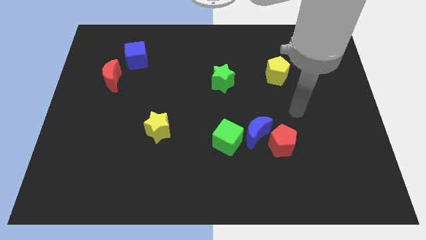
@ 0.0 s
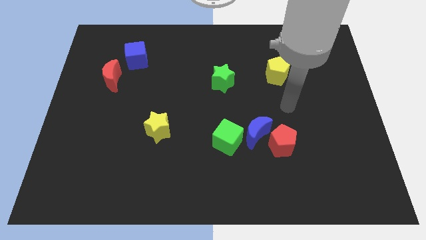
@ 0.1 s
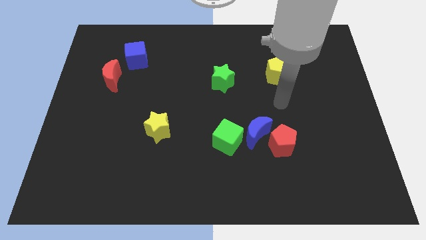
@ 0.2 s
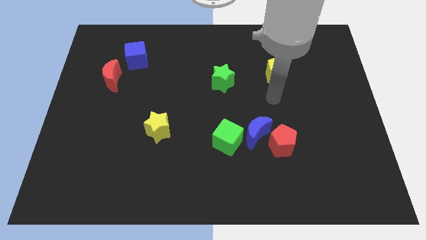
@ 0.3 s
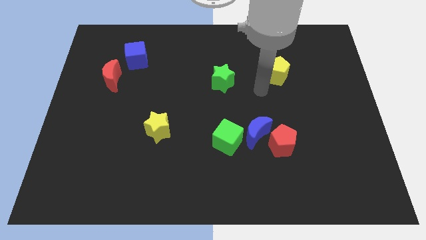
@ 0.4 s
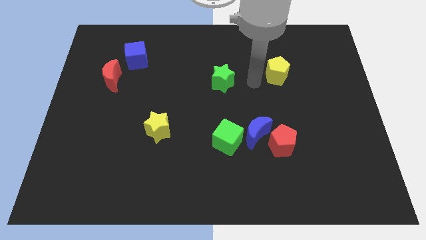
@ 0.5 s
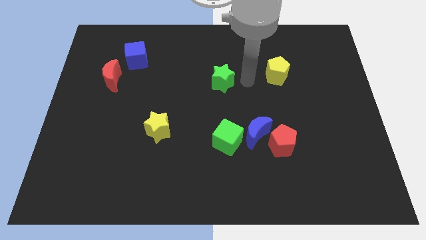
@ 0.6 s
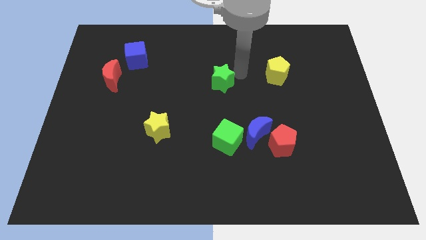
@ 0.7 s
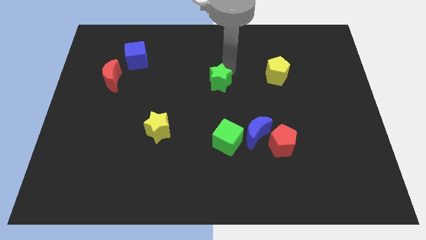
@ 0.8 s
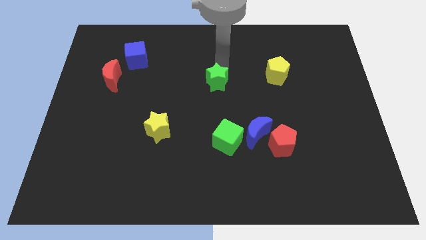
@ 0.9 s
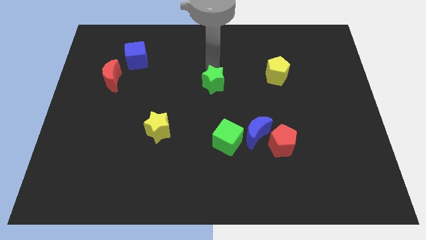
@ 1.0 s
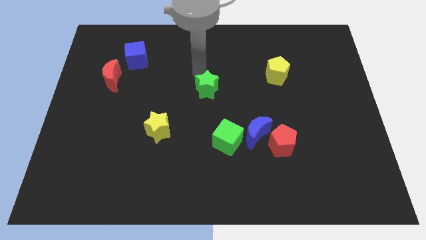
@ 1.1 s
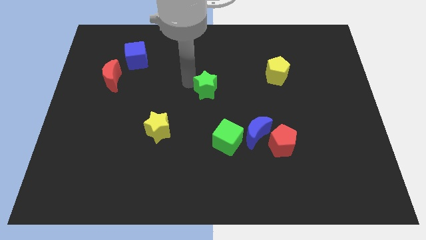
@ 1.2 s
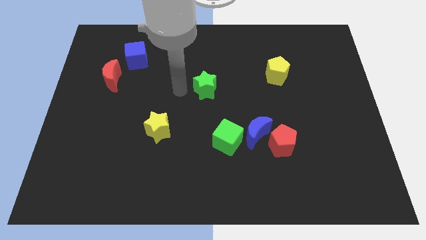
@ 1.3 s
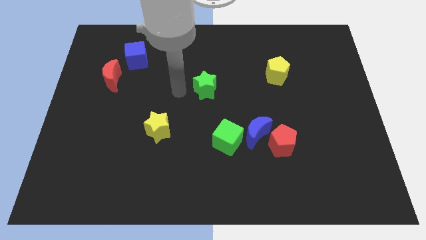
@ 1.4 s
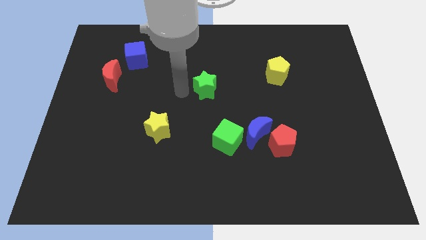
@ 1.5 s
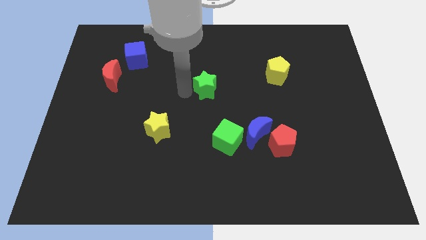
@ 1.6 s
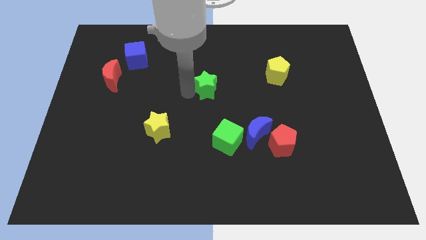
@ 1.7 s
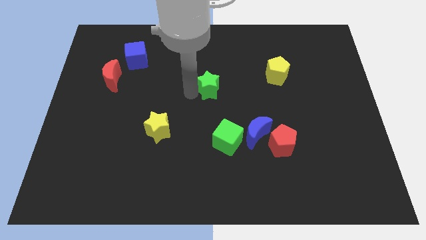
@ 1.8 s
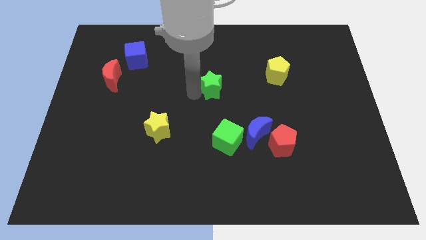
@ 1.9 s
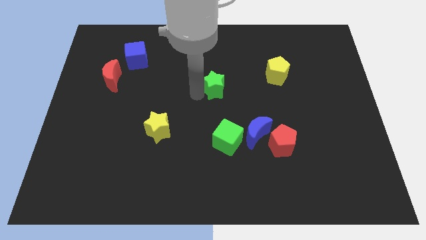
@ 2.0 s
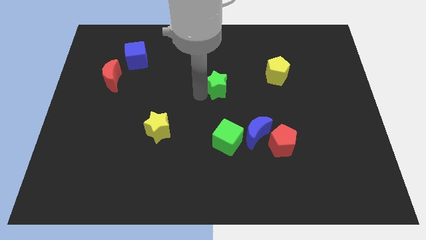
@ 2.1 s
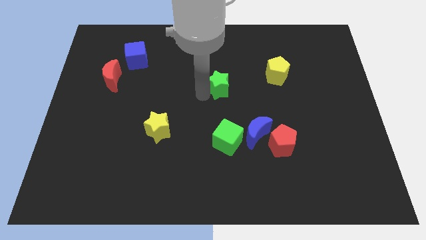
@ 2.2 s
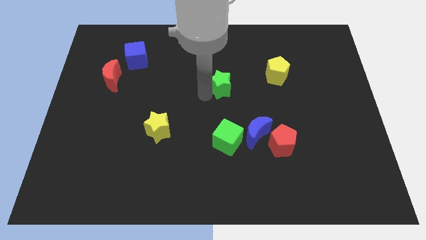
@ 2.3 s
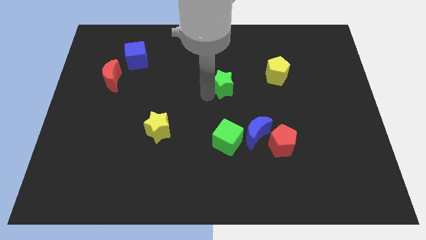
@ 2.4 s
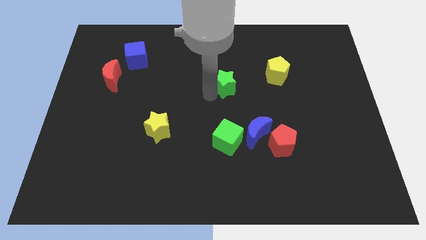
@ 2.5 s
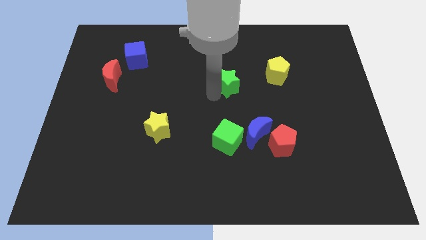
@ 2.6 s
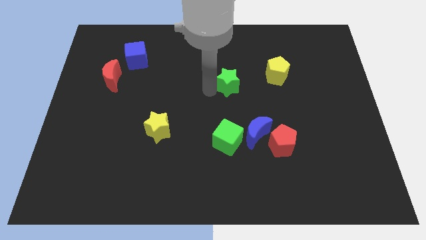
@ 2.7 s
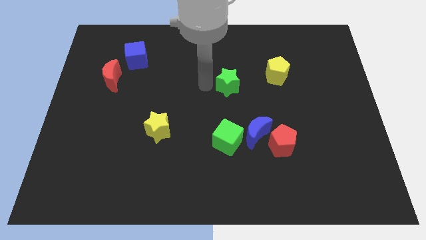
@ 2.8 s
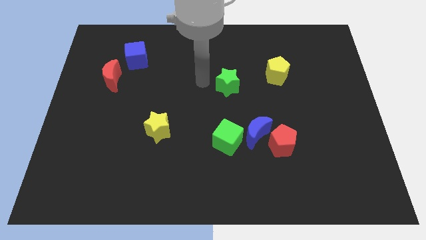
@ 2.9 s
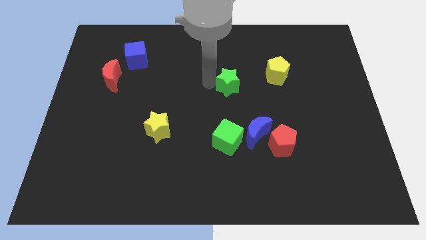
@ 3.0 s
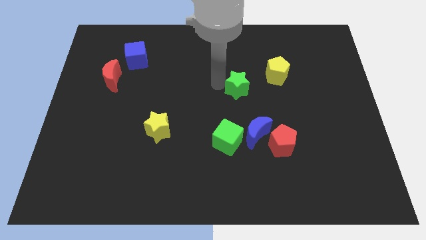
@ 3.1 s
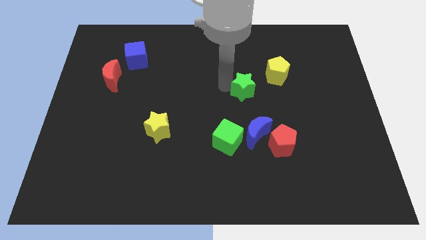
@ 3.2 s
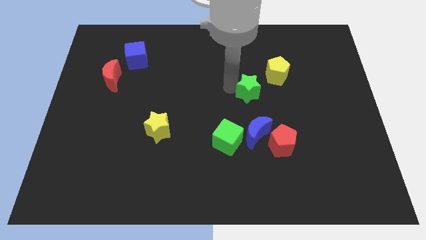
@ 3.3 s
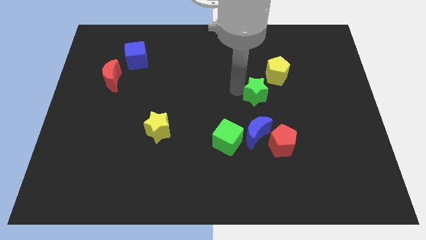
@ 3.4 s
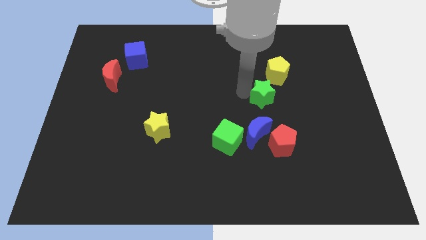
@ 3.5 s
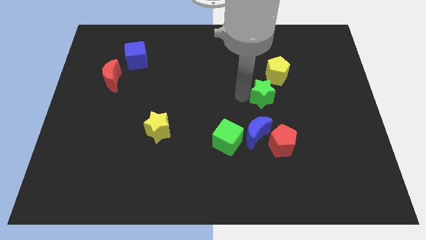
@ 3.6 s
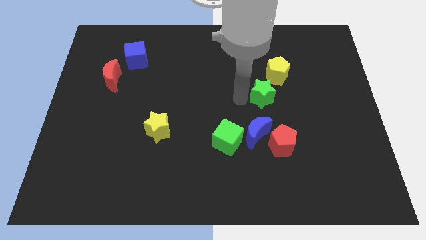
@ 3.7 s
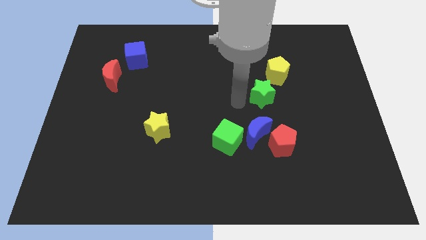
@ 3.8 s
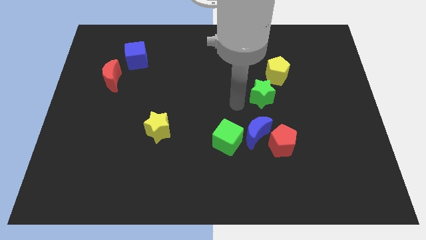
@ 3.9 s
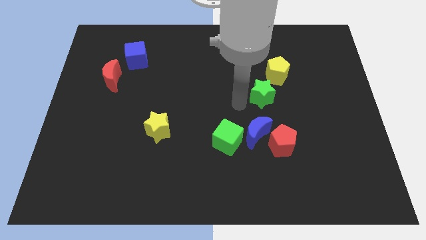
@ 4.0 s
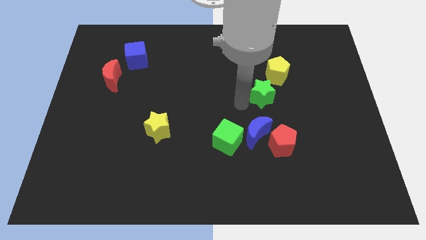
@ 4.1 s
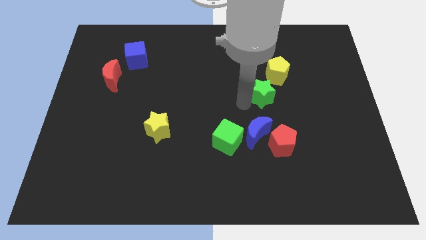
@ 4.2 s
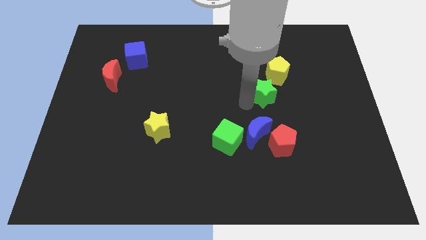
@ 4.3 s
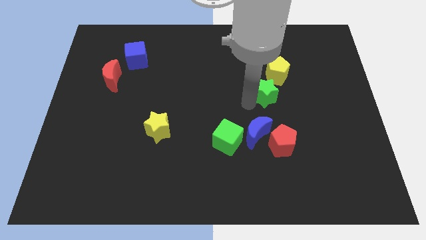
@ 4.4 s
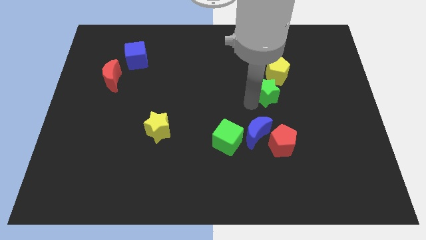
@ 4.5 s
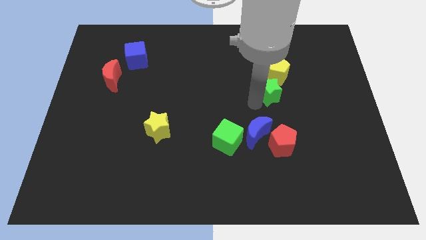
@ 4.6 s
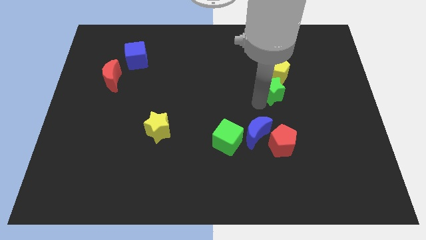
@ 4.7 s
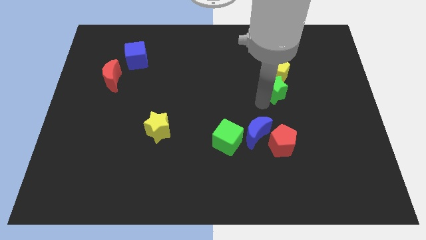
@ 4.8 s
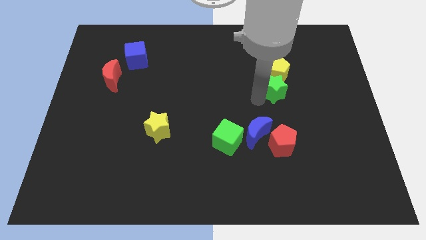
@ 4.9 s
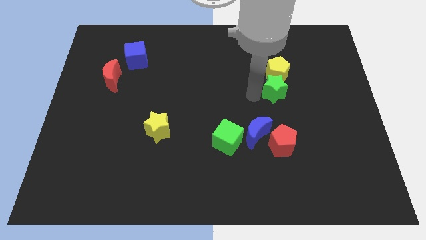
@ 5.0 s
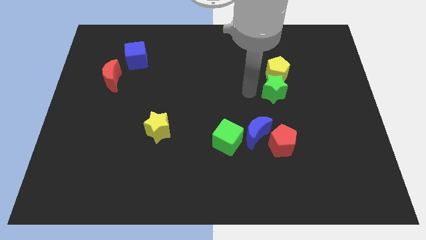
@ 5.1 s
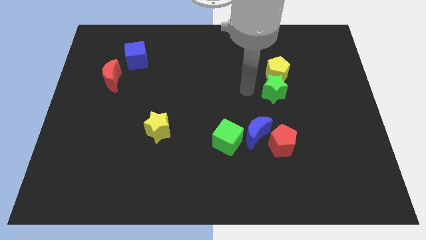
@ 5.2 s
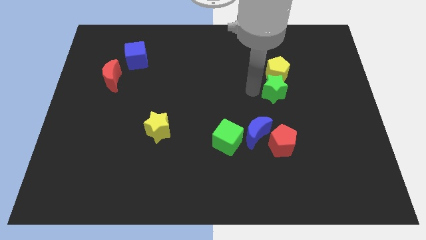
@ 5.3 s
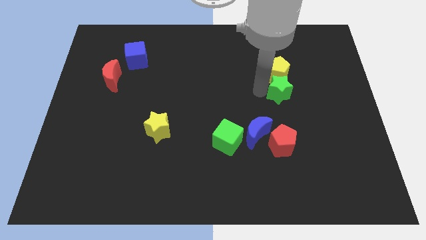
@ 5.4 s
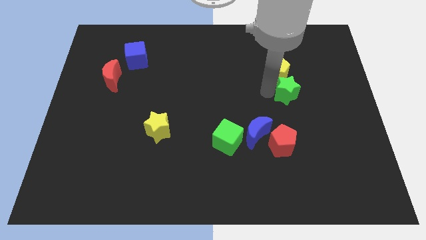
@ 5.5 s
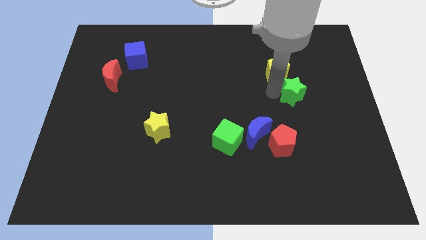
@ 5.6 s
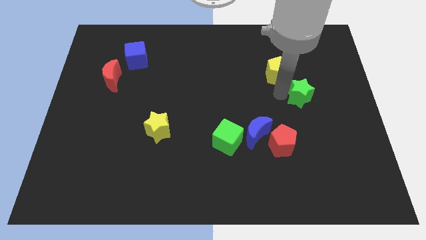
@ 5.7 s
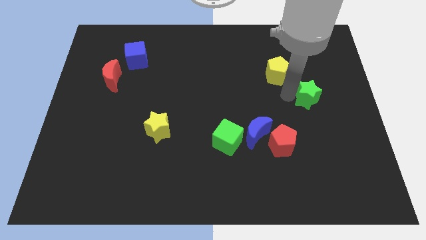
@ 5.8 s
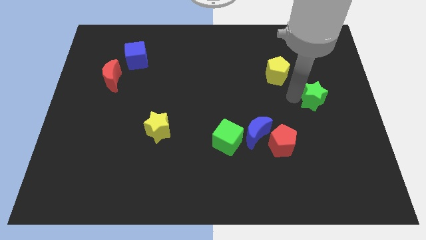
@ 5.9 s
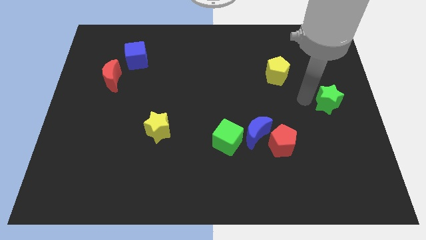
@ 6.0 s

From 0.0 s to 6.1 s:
put the green star to the right side of the board

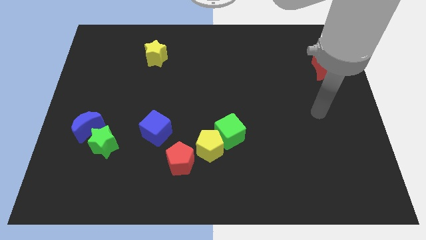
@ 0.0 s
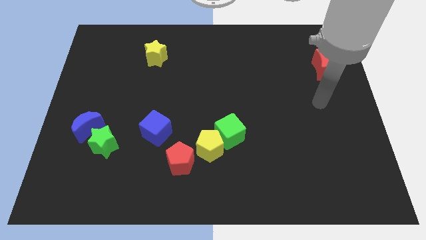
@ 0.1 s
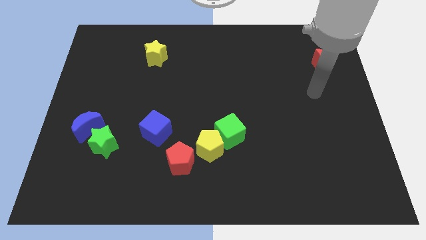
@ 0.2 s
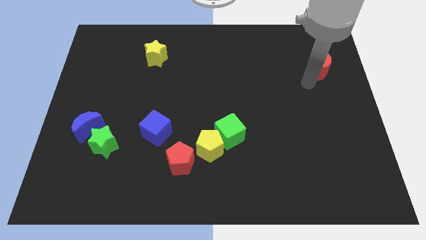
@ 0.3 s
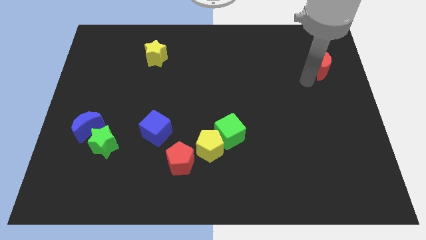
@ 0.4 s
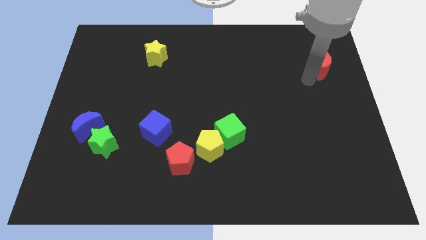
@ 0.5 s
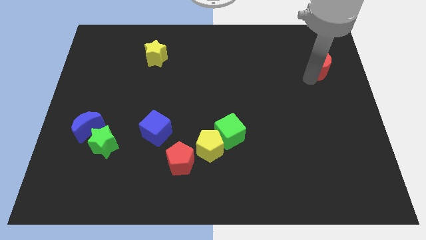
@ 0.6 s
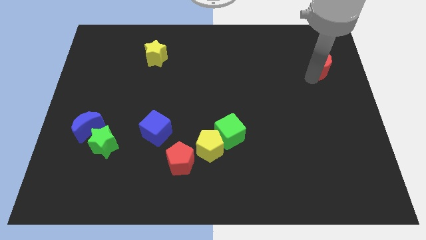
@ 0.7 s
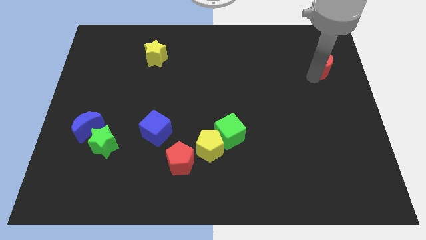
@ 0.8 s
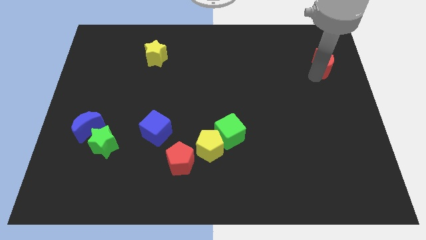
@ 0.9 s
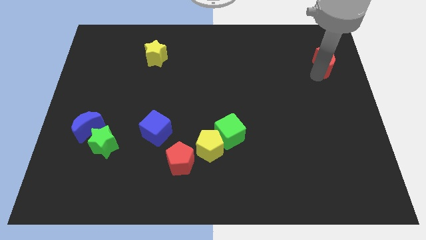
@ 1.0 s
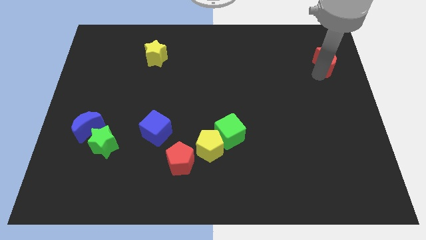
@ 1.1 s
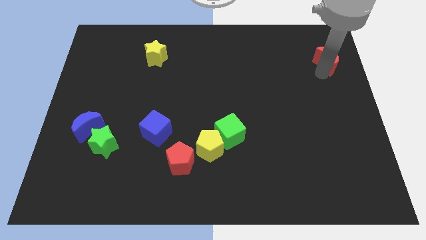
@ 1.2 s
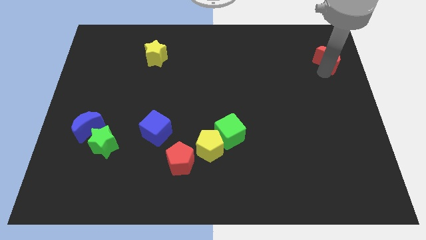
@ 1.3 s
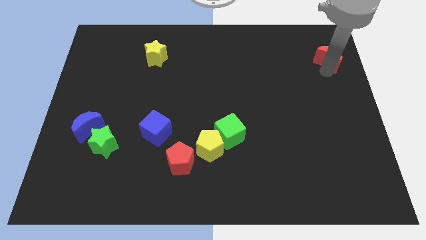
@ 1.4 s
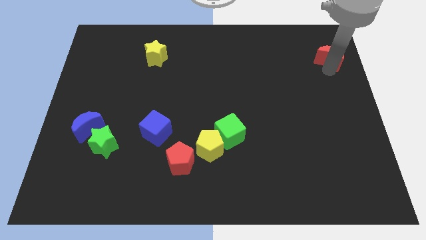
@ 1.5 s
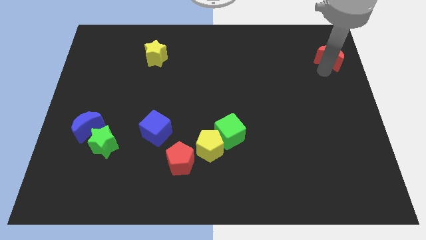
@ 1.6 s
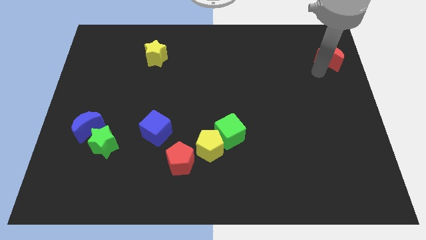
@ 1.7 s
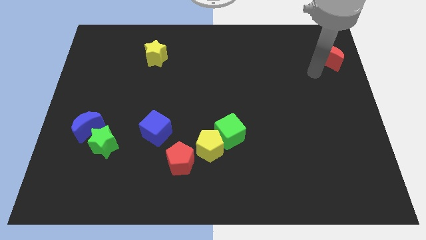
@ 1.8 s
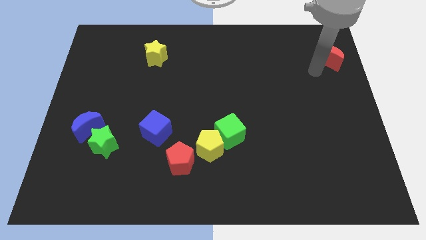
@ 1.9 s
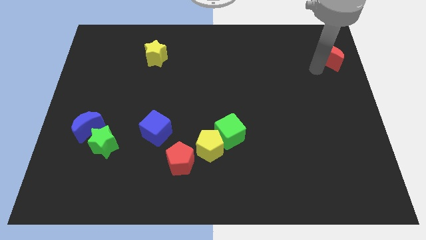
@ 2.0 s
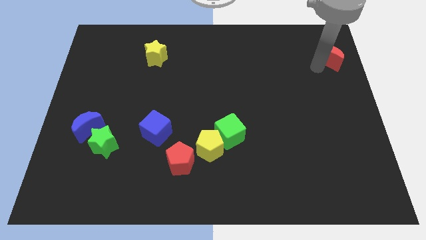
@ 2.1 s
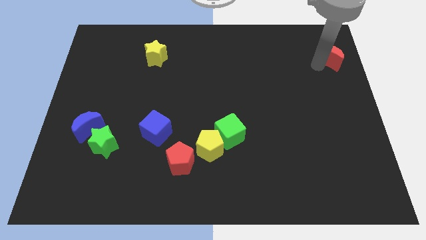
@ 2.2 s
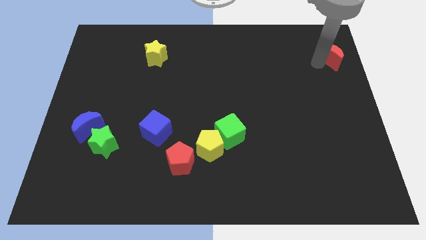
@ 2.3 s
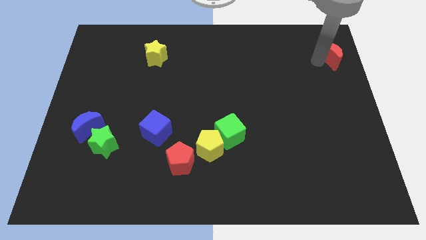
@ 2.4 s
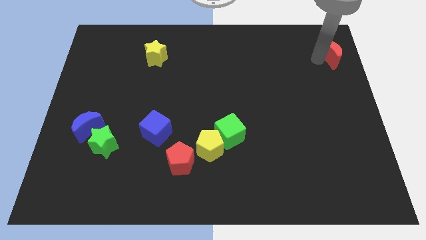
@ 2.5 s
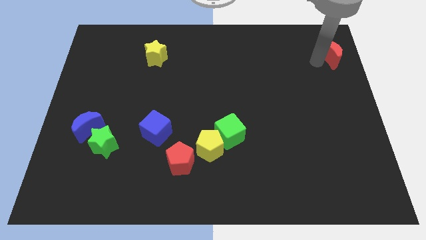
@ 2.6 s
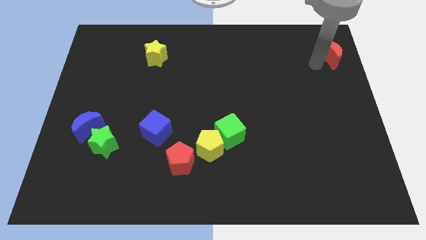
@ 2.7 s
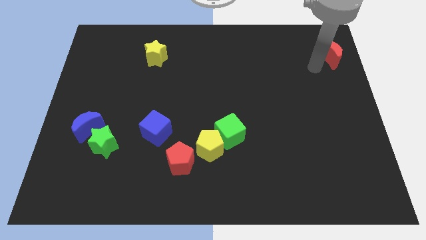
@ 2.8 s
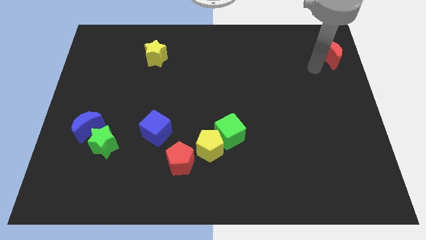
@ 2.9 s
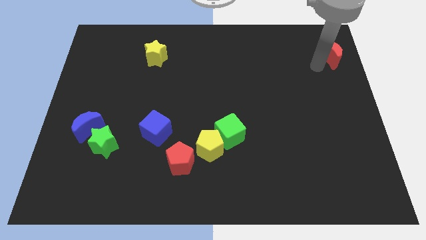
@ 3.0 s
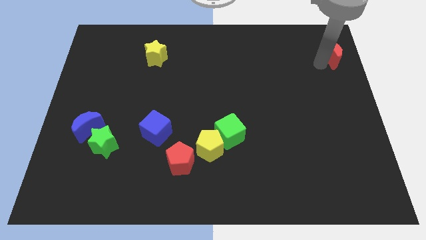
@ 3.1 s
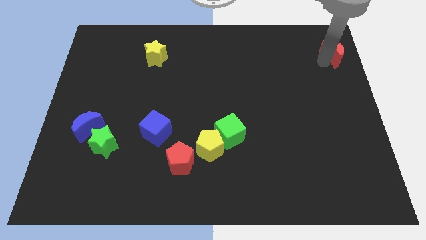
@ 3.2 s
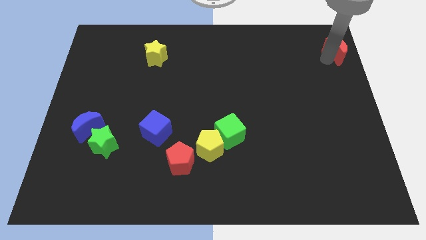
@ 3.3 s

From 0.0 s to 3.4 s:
put the red moon to the top right
